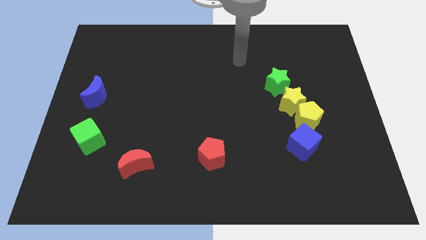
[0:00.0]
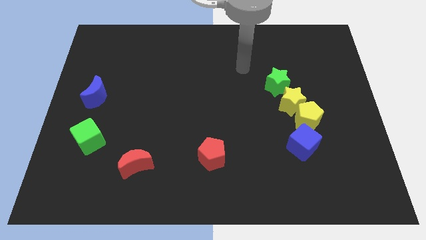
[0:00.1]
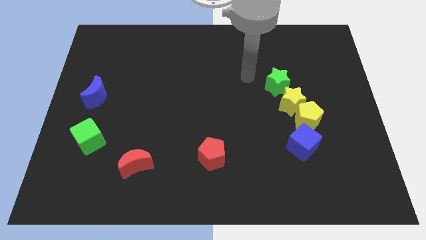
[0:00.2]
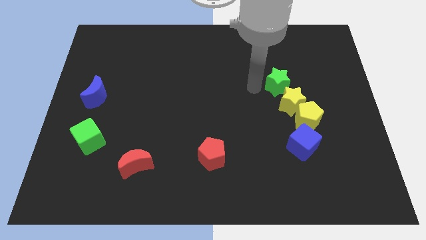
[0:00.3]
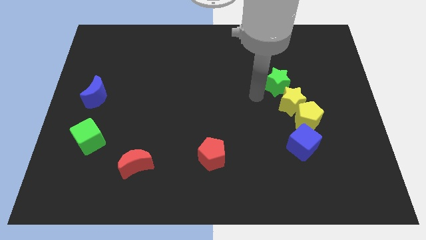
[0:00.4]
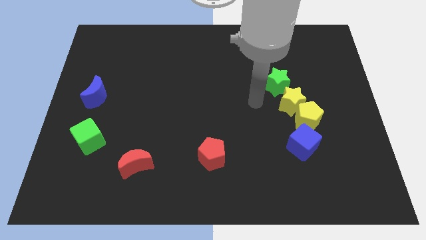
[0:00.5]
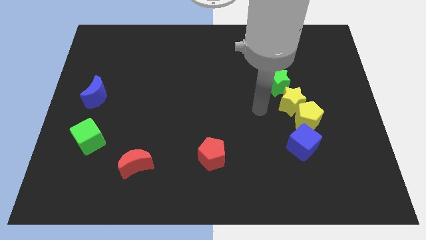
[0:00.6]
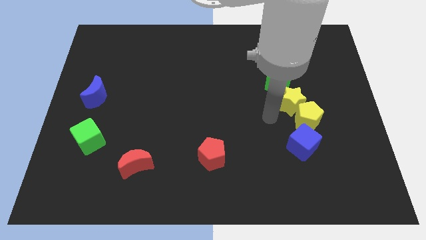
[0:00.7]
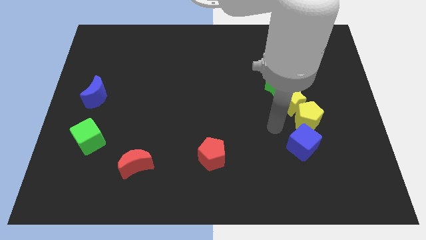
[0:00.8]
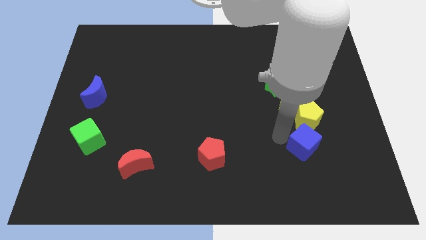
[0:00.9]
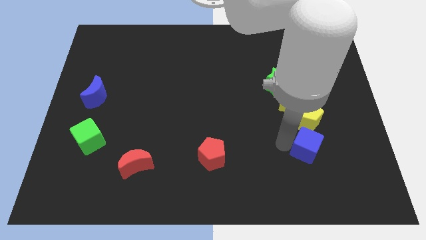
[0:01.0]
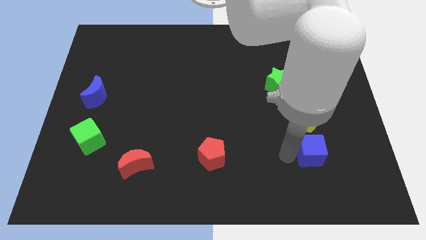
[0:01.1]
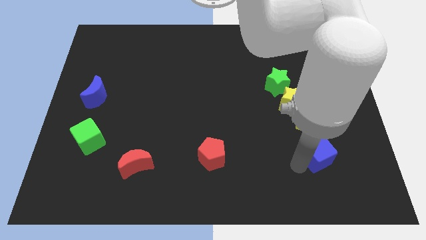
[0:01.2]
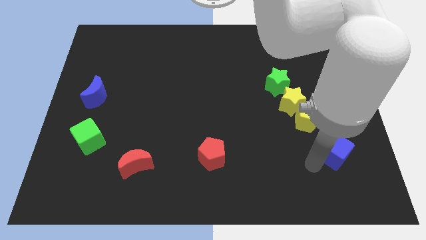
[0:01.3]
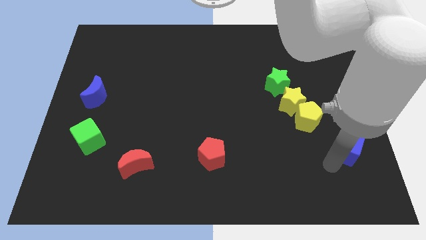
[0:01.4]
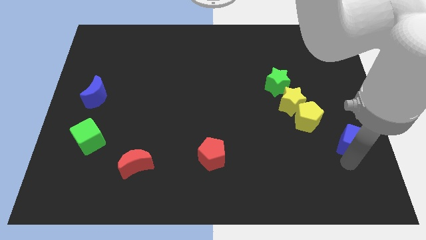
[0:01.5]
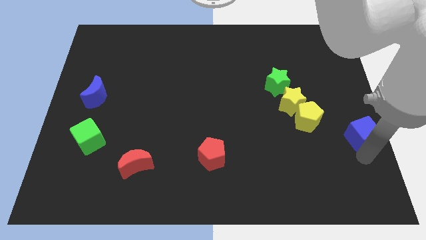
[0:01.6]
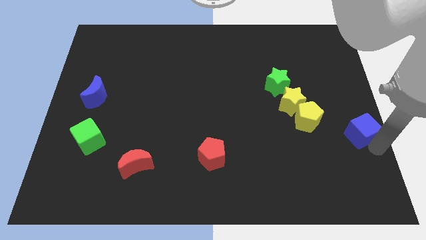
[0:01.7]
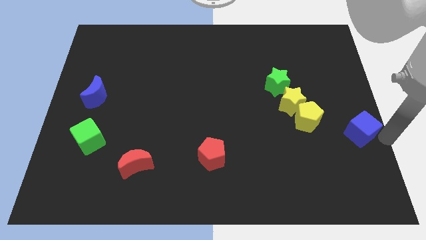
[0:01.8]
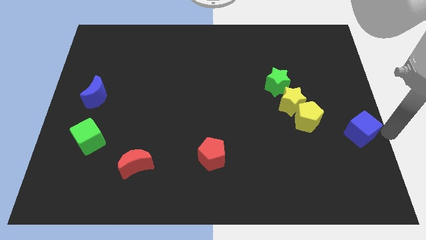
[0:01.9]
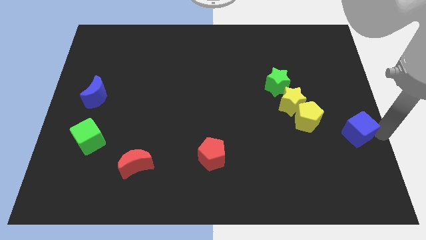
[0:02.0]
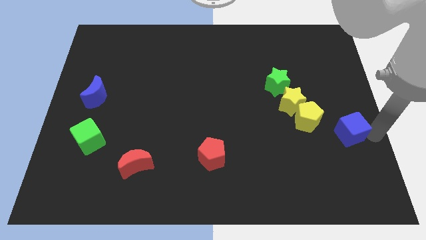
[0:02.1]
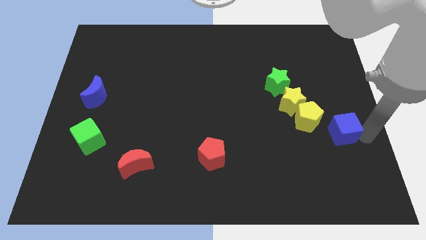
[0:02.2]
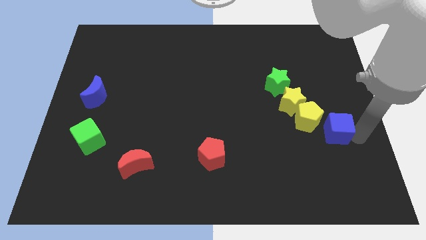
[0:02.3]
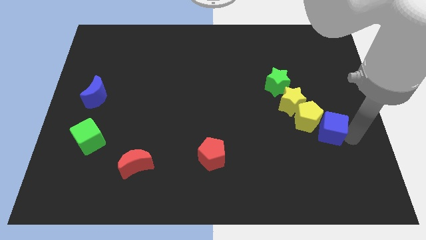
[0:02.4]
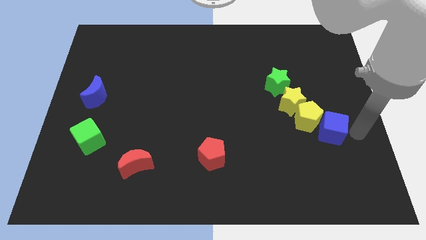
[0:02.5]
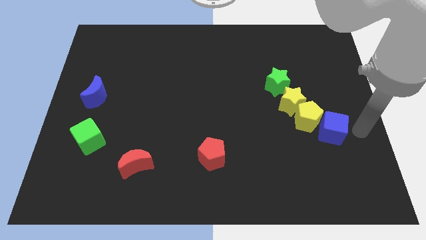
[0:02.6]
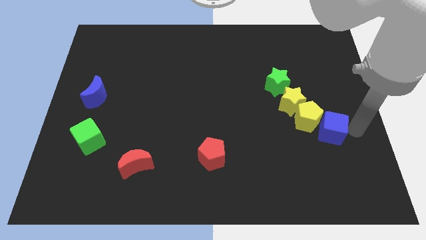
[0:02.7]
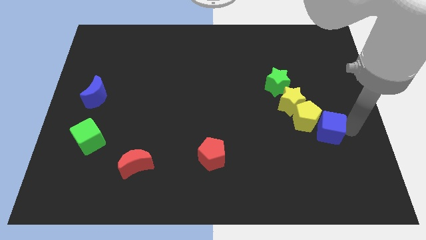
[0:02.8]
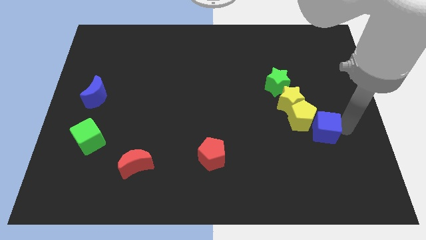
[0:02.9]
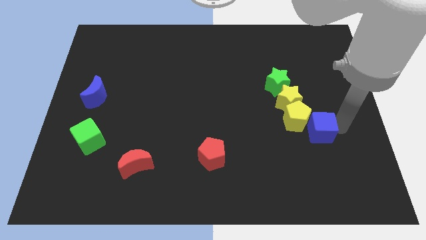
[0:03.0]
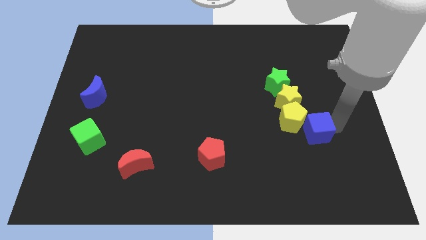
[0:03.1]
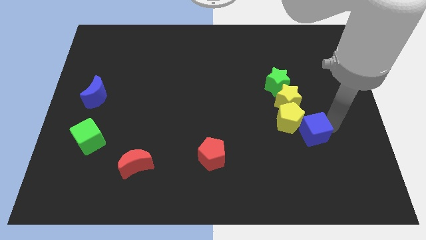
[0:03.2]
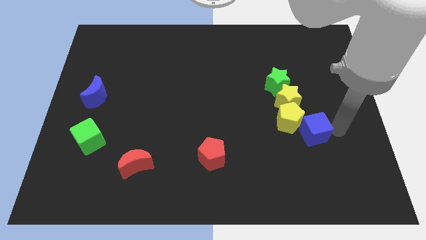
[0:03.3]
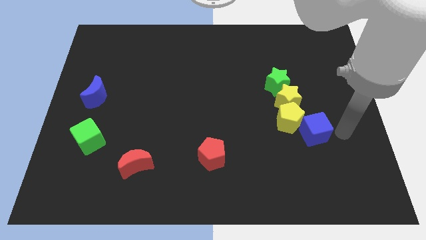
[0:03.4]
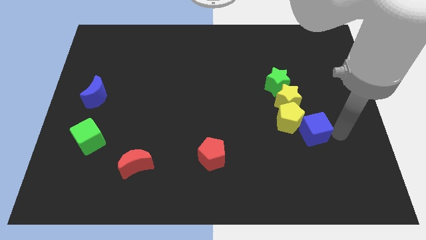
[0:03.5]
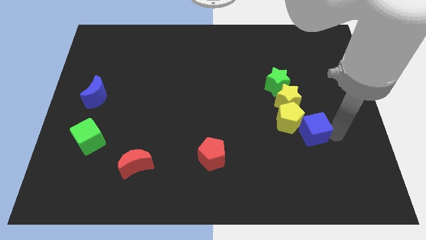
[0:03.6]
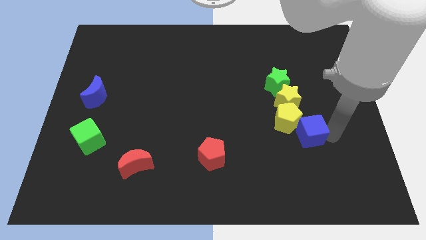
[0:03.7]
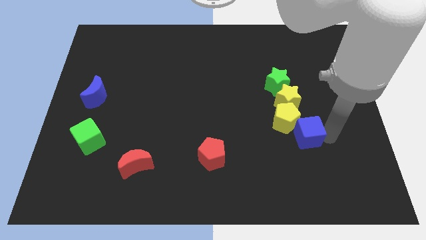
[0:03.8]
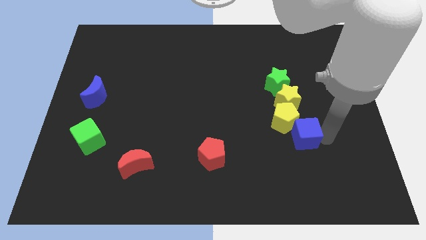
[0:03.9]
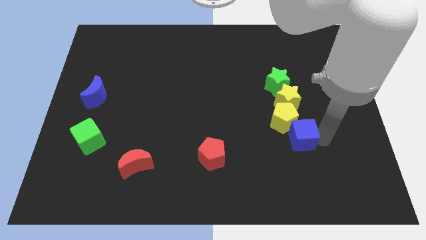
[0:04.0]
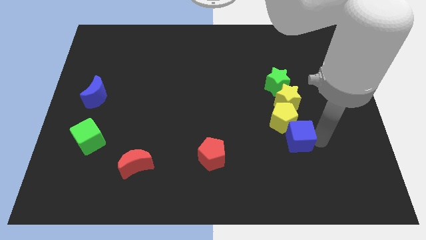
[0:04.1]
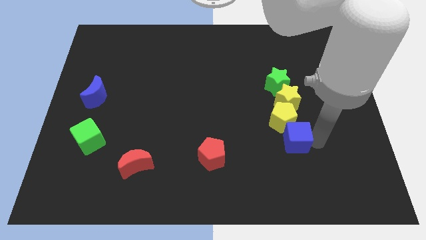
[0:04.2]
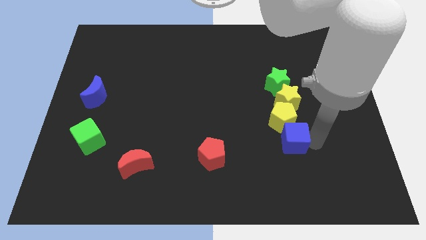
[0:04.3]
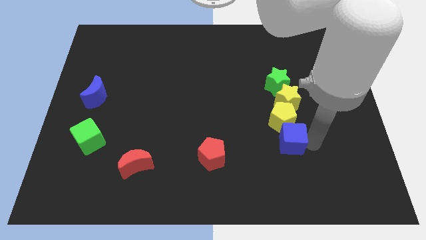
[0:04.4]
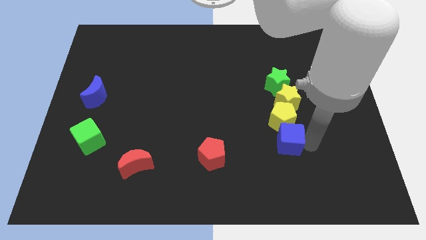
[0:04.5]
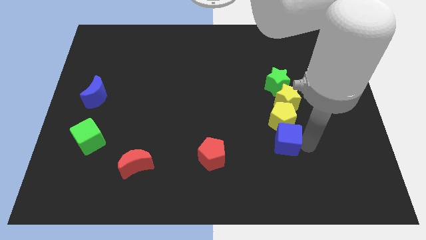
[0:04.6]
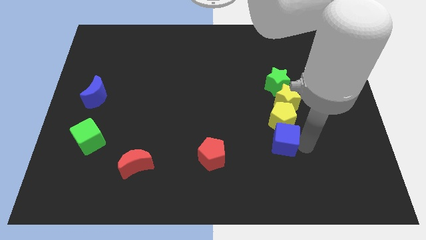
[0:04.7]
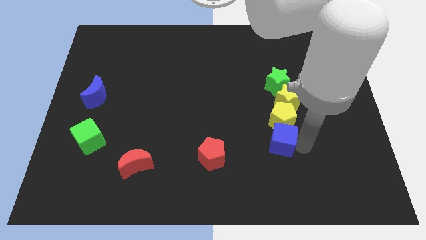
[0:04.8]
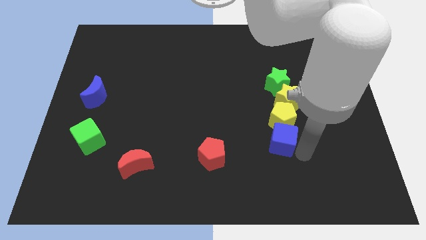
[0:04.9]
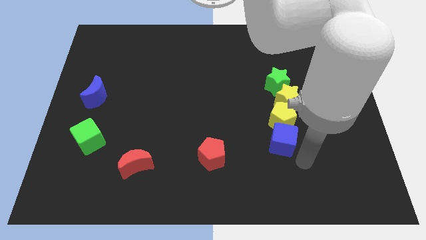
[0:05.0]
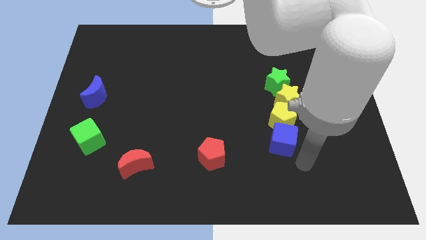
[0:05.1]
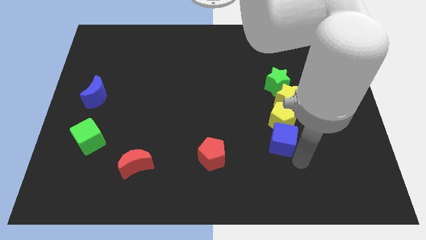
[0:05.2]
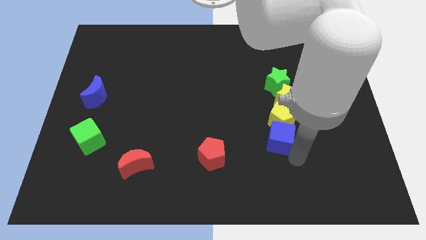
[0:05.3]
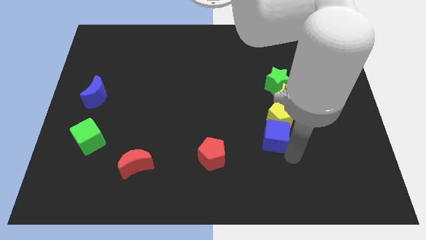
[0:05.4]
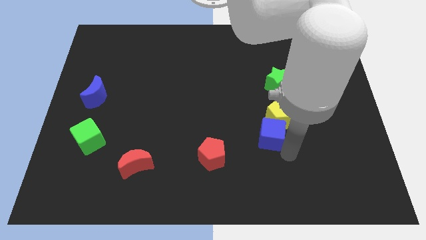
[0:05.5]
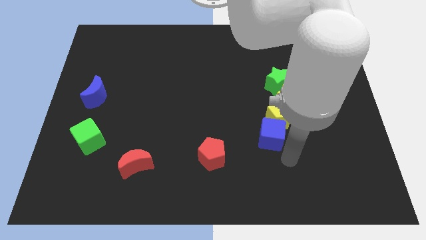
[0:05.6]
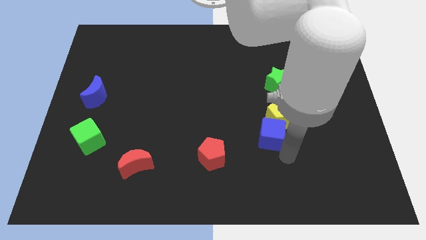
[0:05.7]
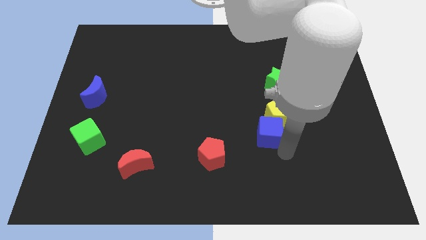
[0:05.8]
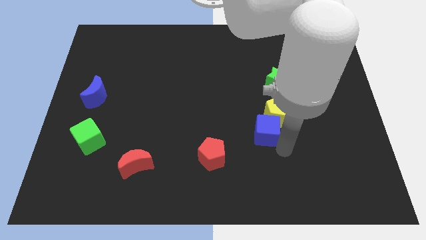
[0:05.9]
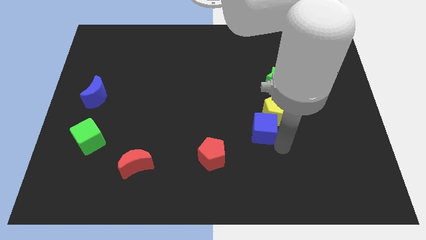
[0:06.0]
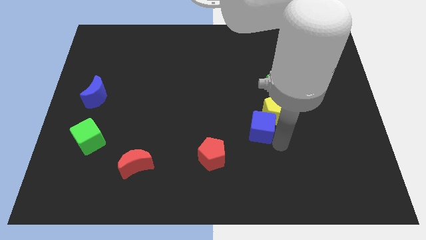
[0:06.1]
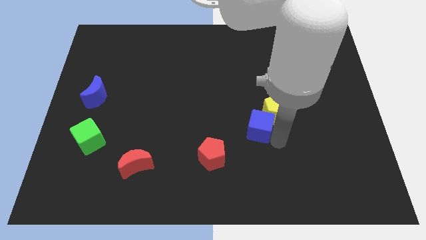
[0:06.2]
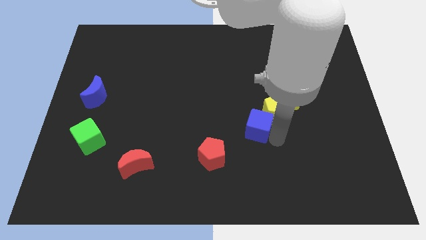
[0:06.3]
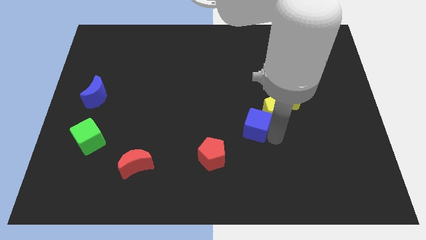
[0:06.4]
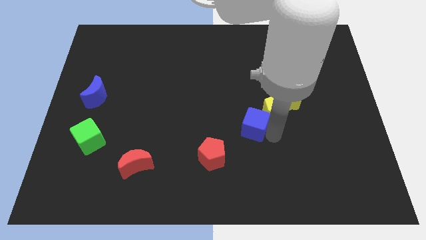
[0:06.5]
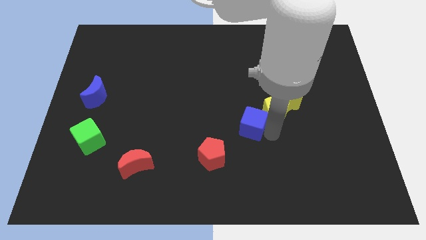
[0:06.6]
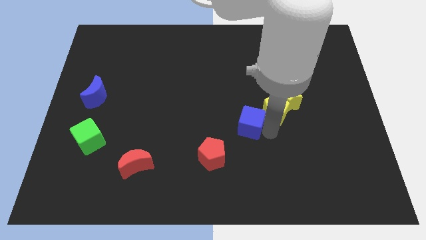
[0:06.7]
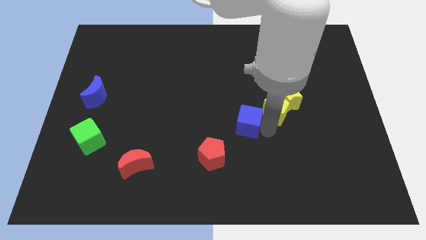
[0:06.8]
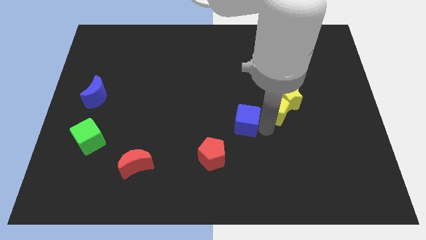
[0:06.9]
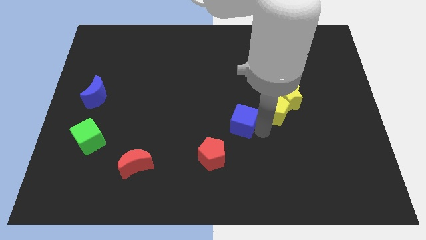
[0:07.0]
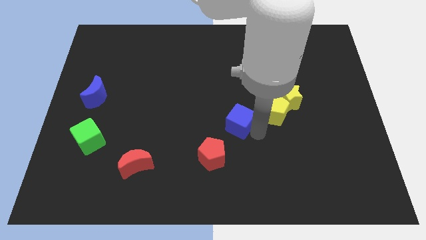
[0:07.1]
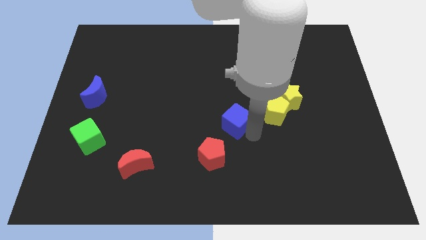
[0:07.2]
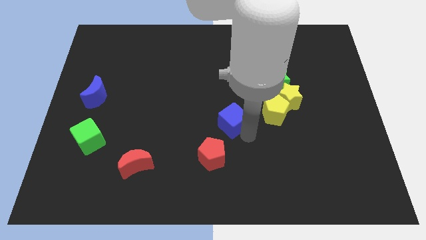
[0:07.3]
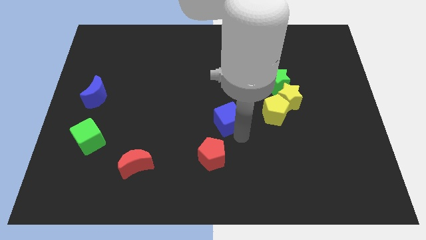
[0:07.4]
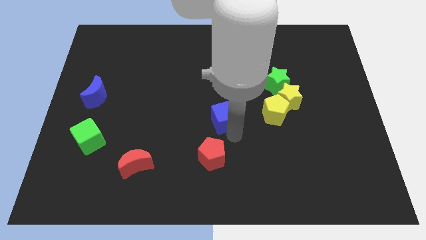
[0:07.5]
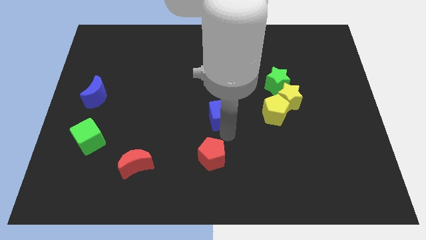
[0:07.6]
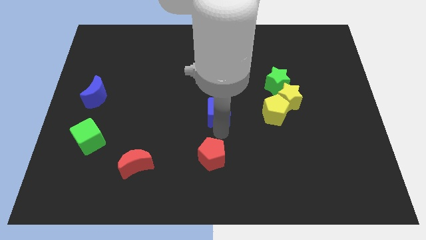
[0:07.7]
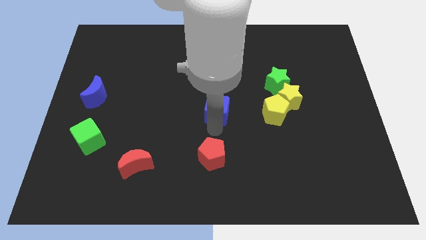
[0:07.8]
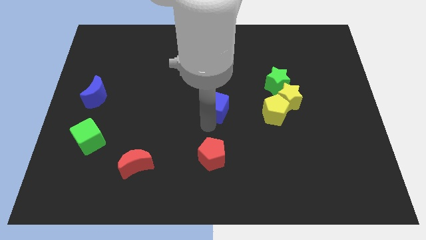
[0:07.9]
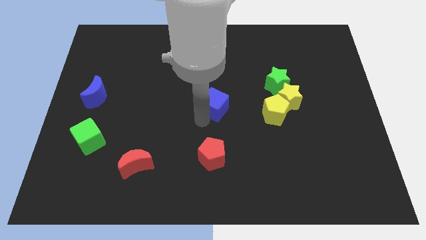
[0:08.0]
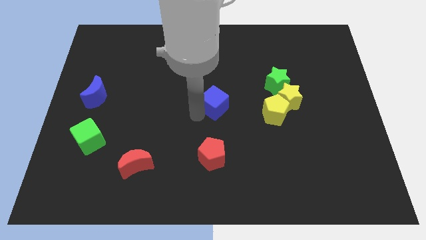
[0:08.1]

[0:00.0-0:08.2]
move the blue cube diagonally up and left
